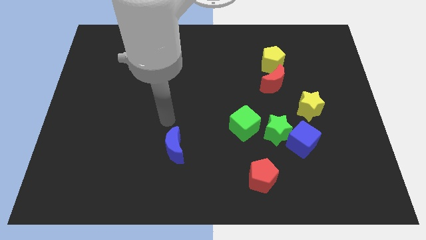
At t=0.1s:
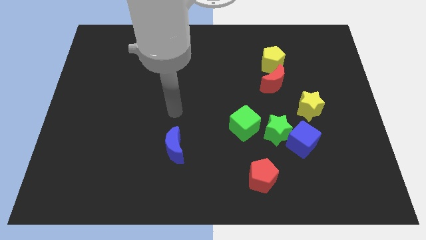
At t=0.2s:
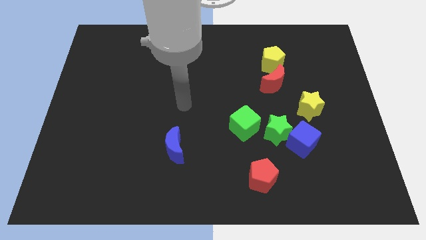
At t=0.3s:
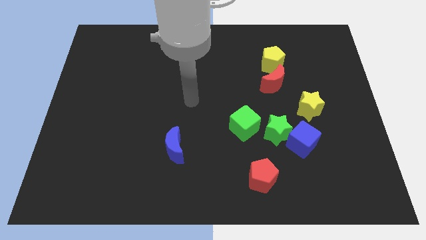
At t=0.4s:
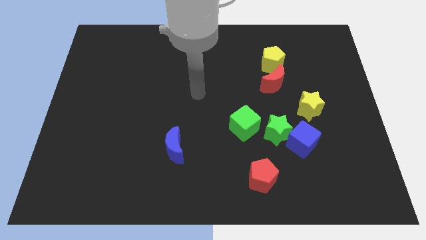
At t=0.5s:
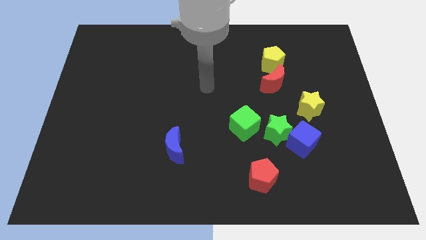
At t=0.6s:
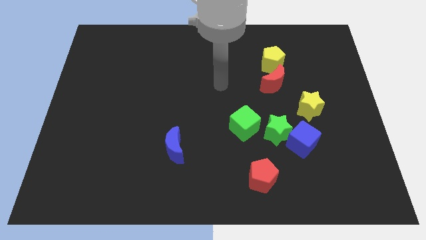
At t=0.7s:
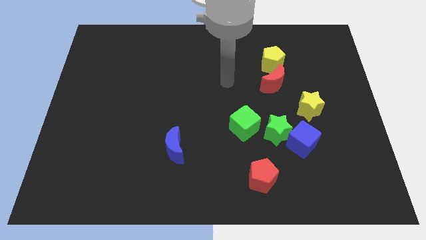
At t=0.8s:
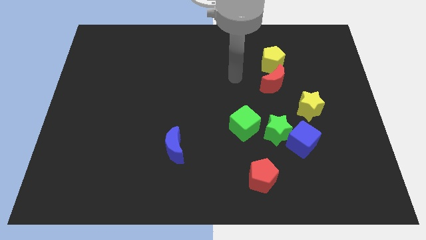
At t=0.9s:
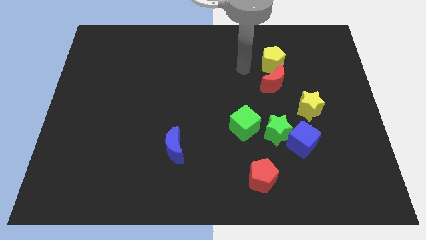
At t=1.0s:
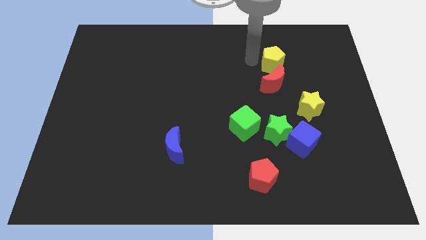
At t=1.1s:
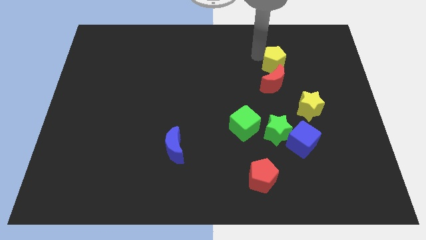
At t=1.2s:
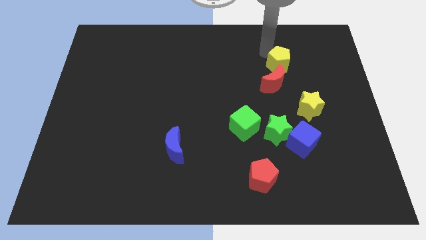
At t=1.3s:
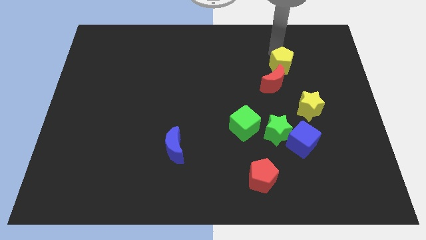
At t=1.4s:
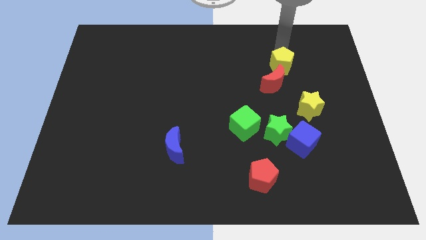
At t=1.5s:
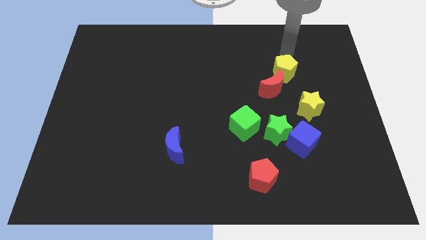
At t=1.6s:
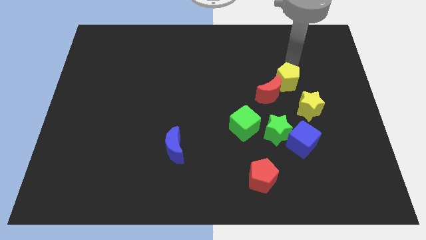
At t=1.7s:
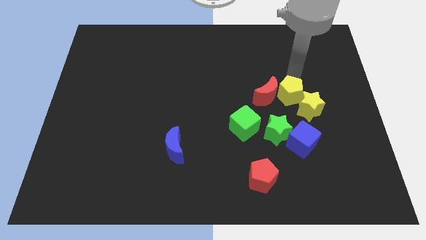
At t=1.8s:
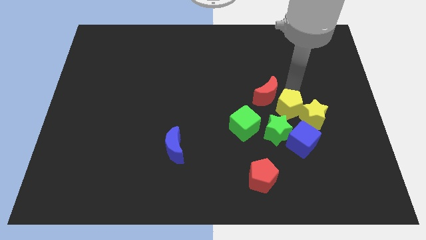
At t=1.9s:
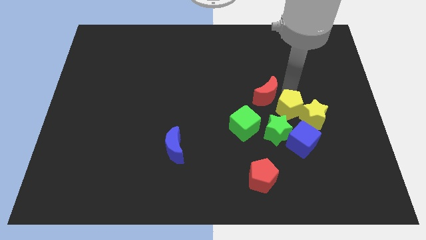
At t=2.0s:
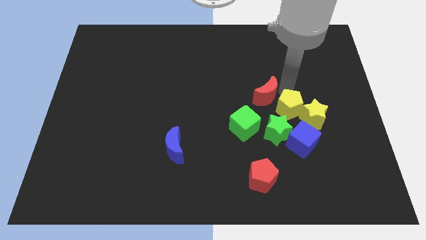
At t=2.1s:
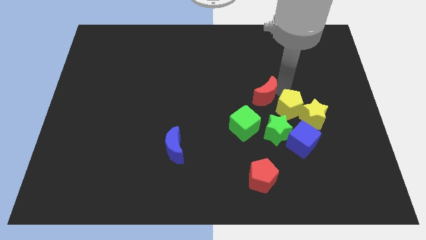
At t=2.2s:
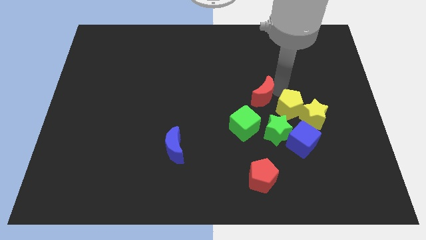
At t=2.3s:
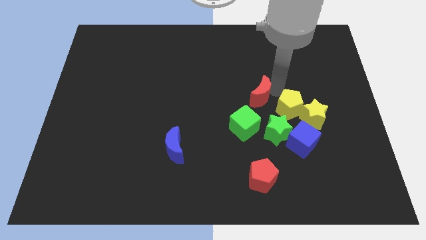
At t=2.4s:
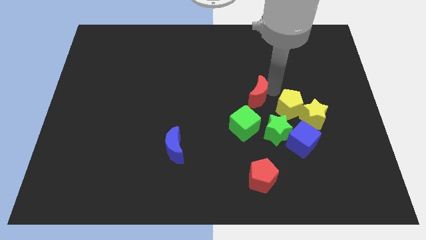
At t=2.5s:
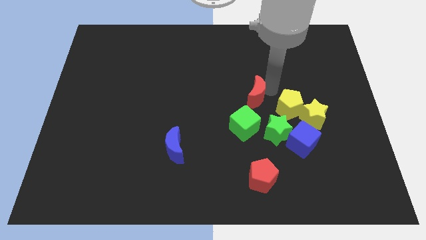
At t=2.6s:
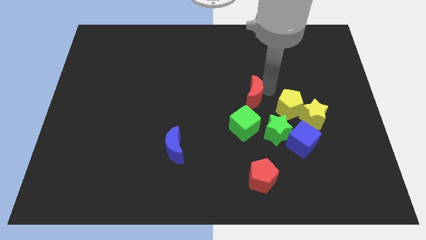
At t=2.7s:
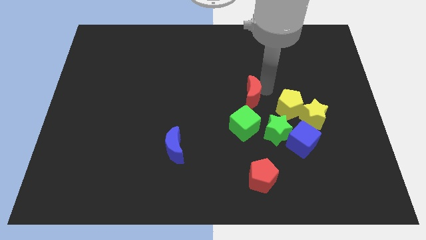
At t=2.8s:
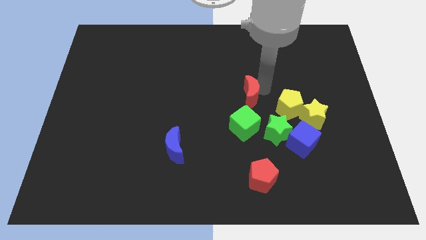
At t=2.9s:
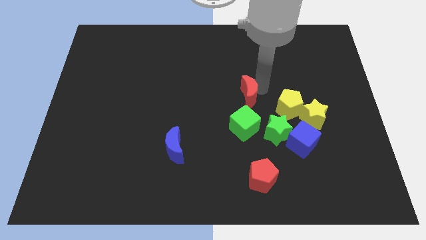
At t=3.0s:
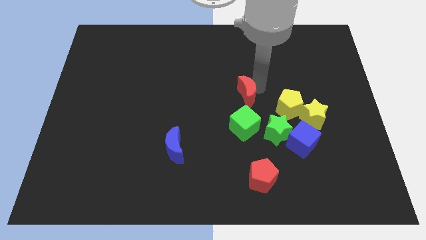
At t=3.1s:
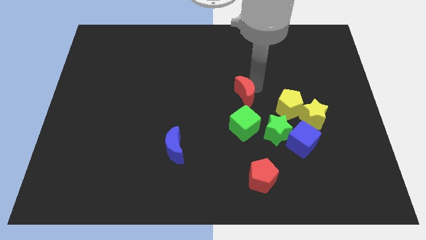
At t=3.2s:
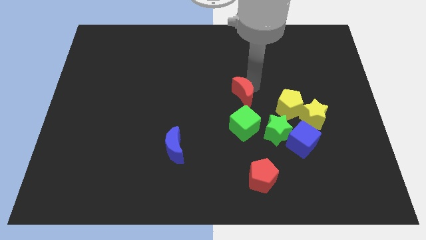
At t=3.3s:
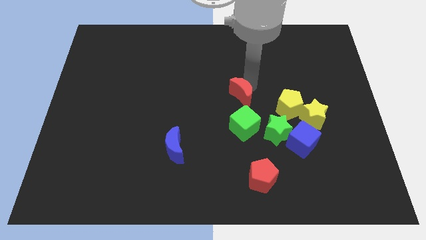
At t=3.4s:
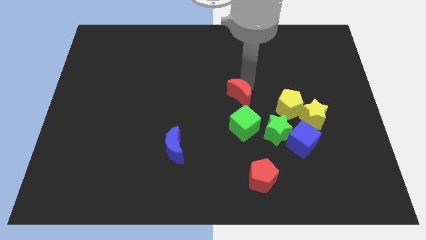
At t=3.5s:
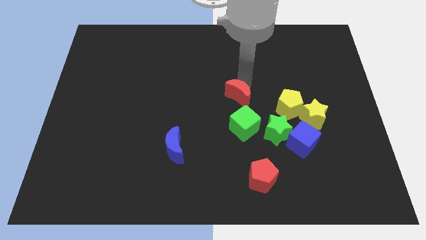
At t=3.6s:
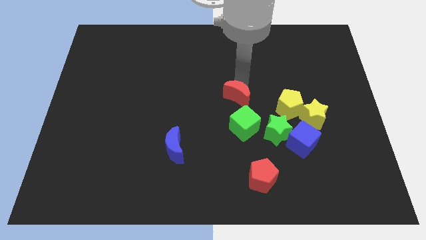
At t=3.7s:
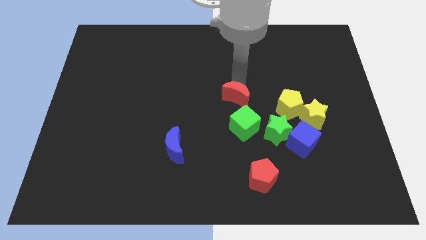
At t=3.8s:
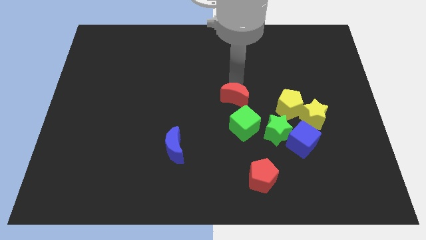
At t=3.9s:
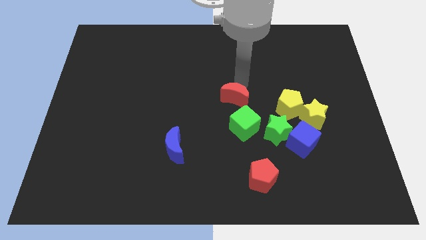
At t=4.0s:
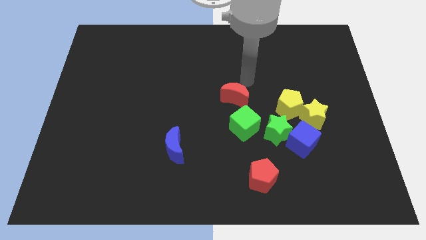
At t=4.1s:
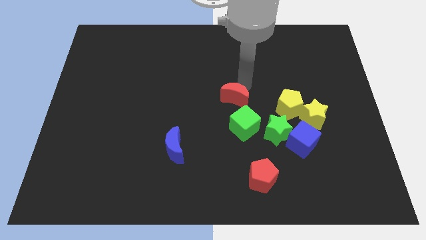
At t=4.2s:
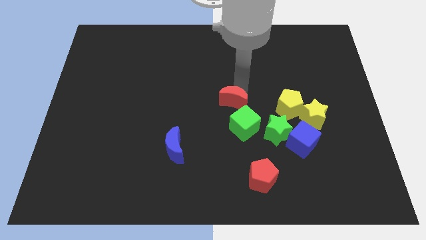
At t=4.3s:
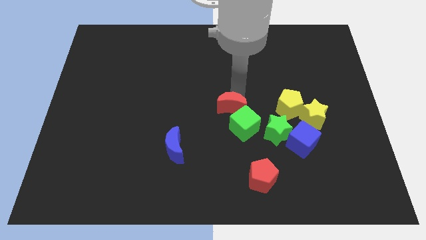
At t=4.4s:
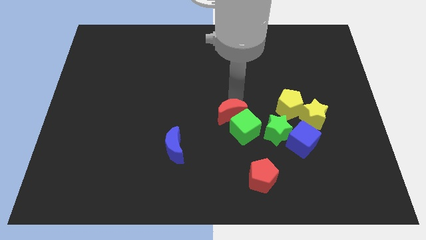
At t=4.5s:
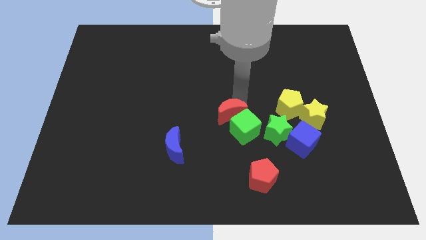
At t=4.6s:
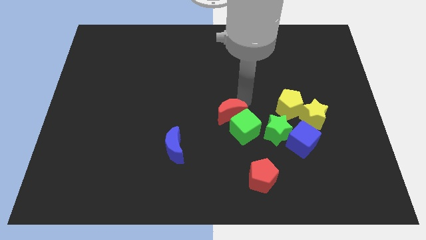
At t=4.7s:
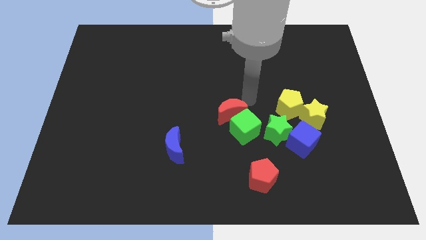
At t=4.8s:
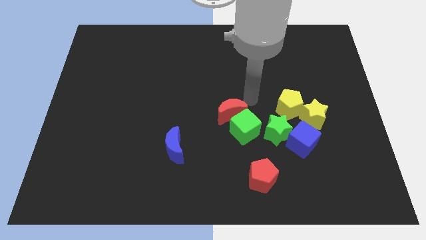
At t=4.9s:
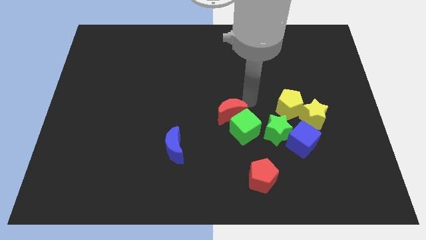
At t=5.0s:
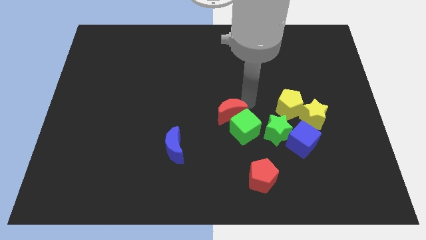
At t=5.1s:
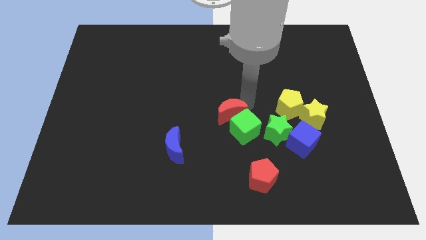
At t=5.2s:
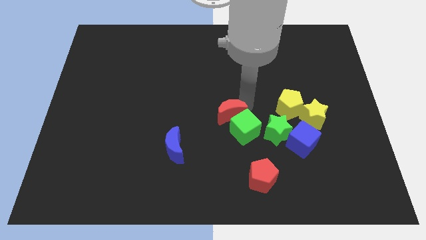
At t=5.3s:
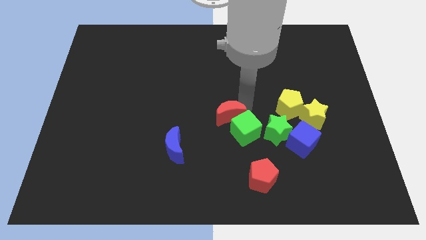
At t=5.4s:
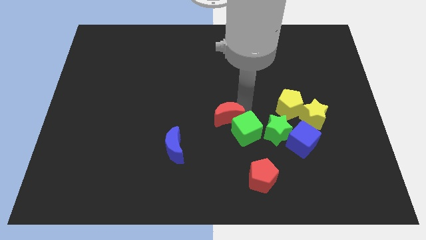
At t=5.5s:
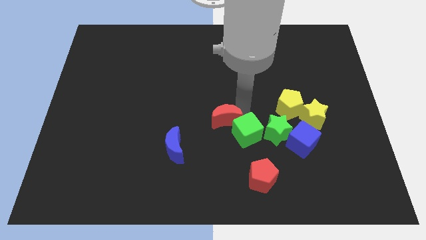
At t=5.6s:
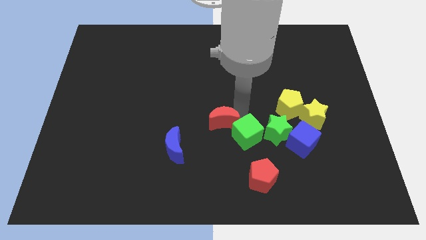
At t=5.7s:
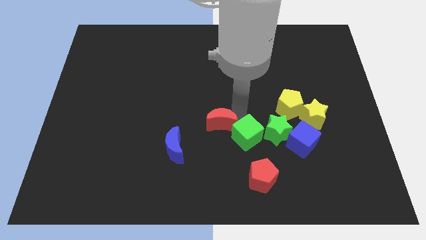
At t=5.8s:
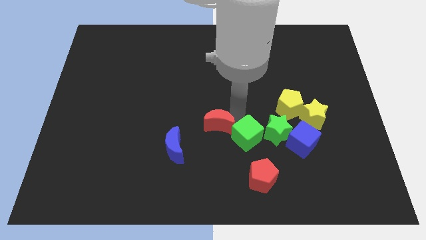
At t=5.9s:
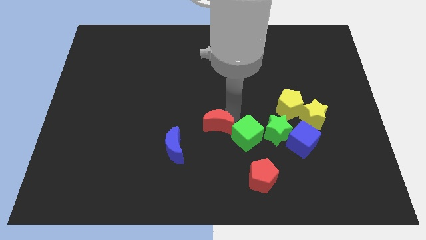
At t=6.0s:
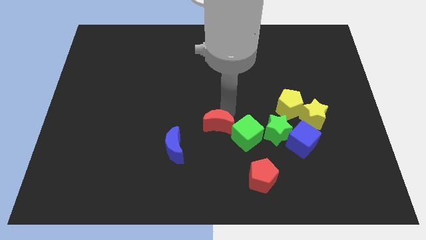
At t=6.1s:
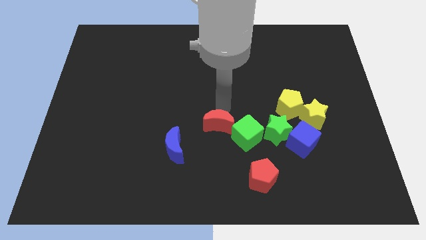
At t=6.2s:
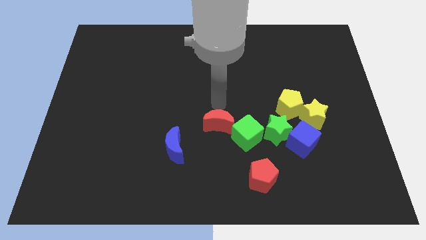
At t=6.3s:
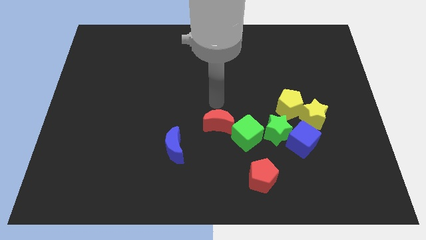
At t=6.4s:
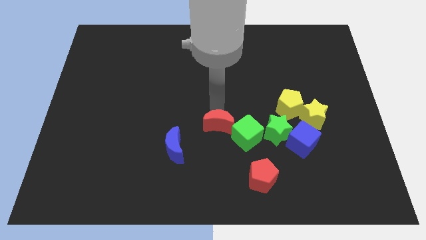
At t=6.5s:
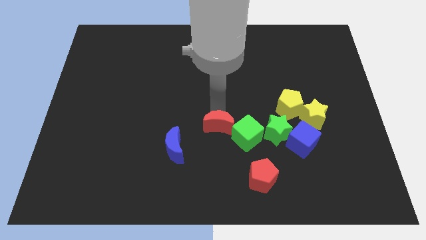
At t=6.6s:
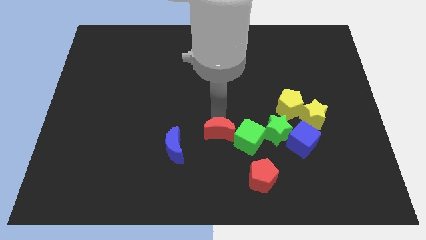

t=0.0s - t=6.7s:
move the red moon to the right side of the blue moon

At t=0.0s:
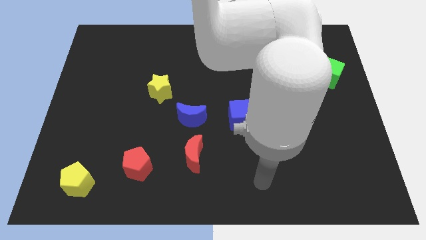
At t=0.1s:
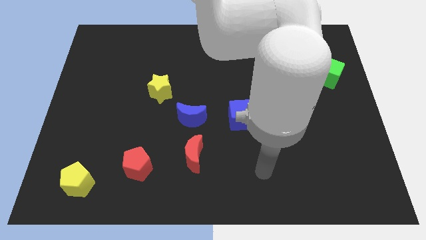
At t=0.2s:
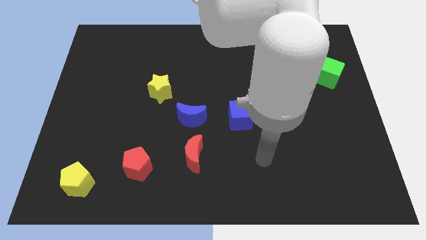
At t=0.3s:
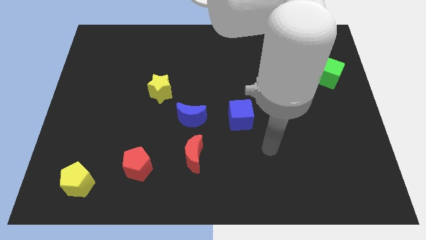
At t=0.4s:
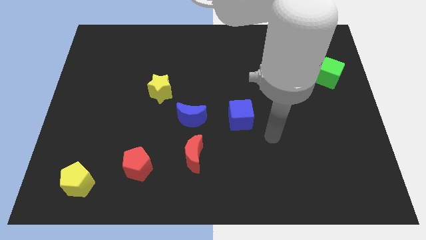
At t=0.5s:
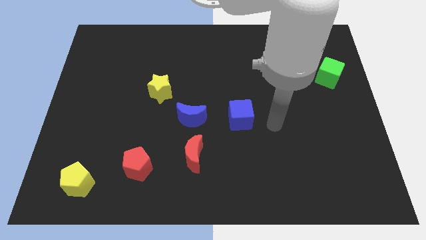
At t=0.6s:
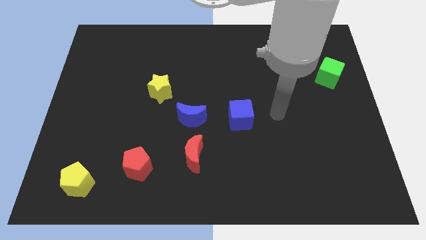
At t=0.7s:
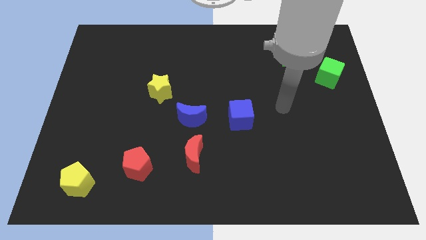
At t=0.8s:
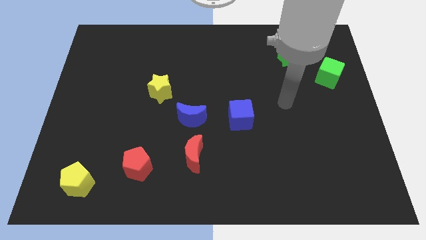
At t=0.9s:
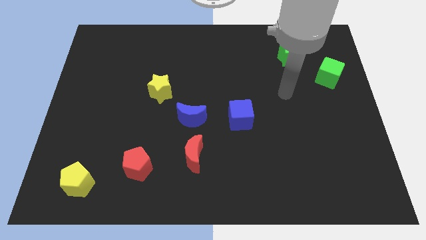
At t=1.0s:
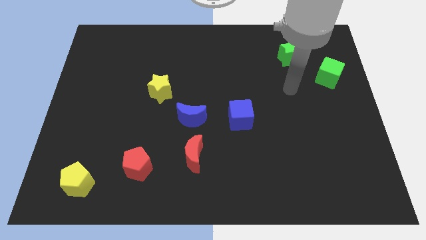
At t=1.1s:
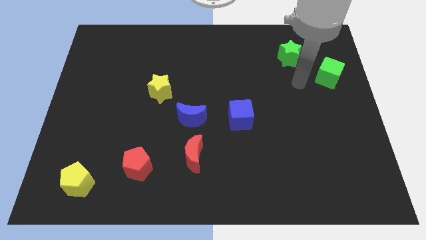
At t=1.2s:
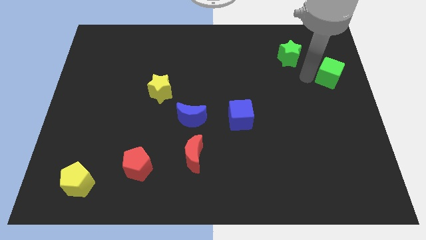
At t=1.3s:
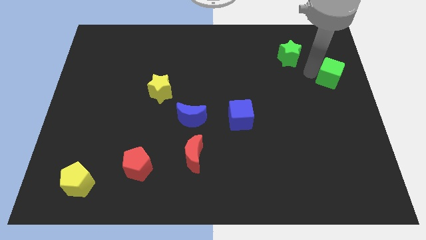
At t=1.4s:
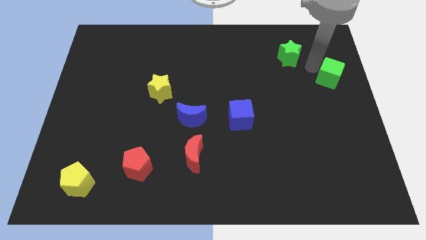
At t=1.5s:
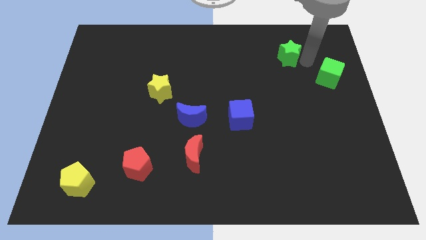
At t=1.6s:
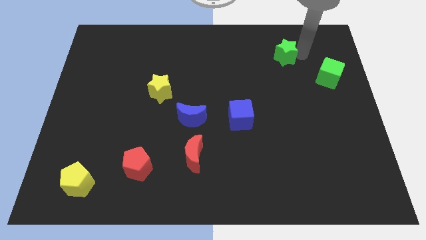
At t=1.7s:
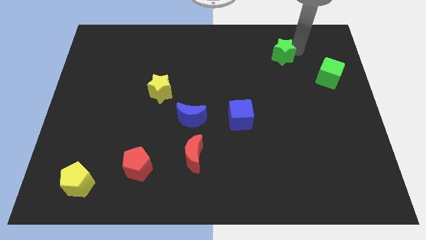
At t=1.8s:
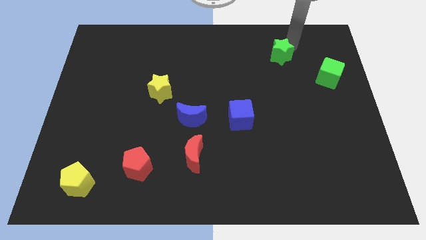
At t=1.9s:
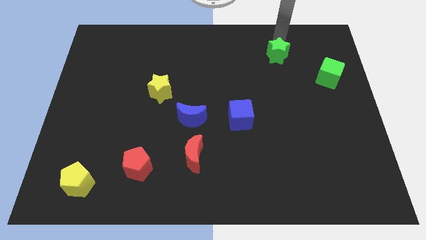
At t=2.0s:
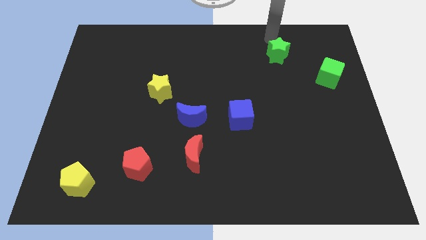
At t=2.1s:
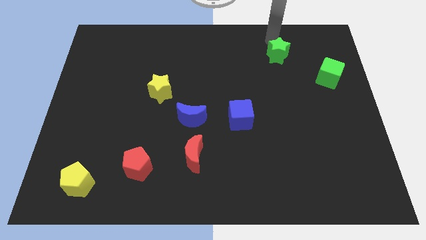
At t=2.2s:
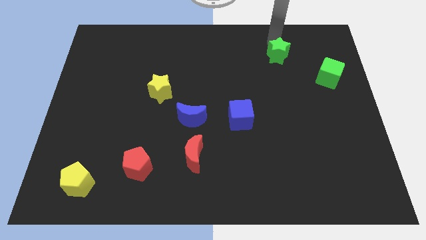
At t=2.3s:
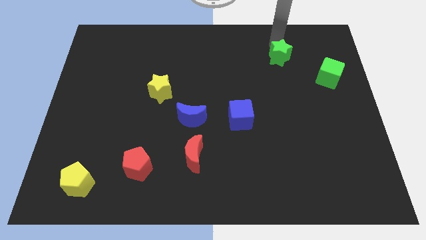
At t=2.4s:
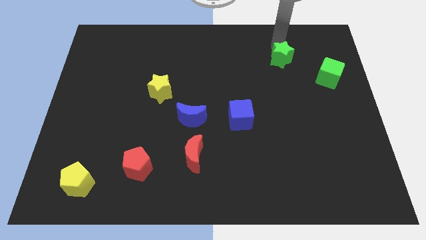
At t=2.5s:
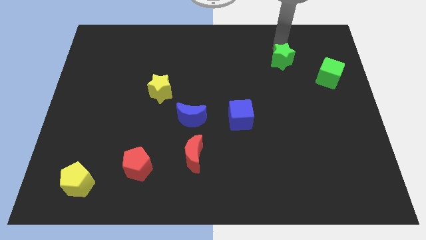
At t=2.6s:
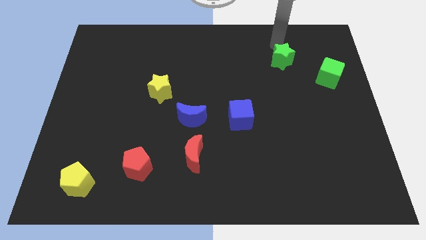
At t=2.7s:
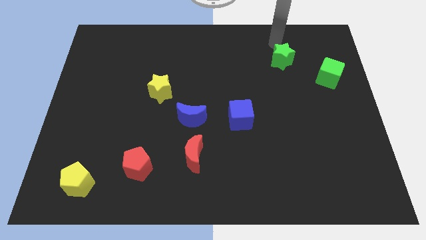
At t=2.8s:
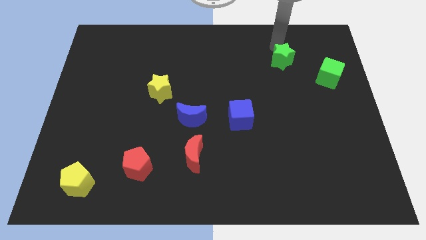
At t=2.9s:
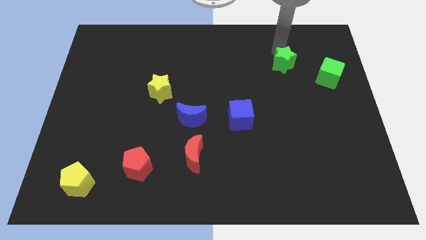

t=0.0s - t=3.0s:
slide the green star left of the green cube
